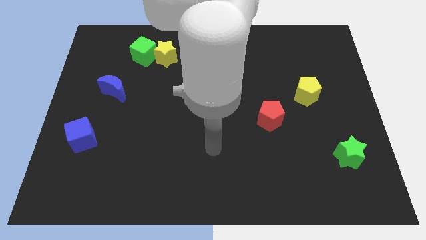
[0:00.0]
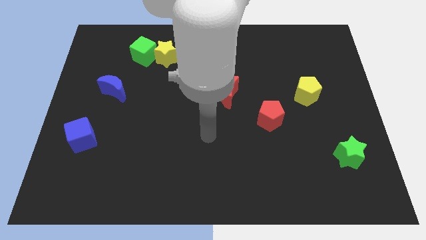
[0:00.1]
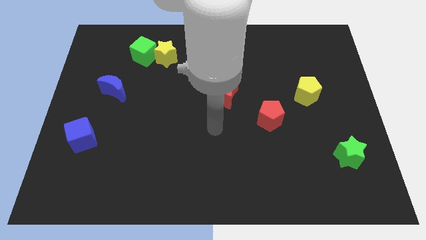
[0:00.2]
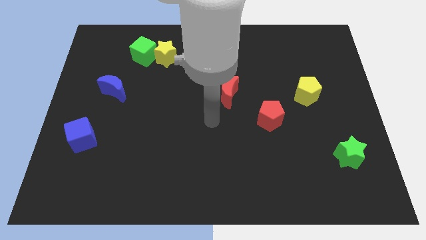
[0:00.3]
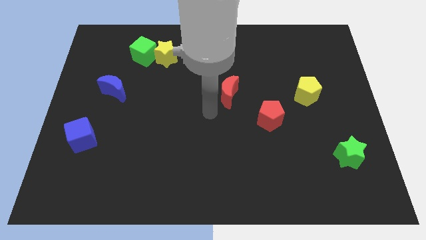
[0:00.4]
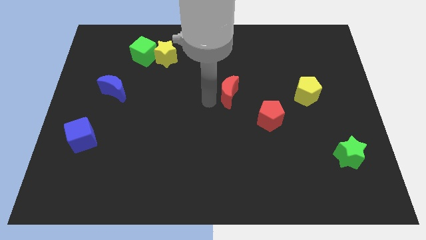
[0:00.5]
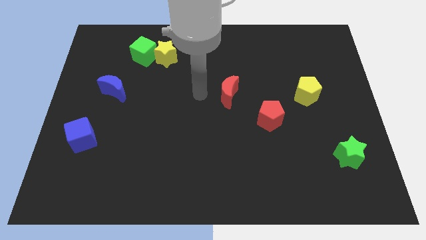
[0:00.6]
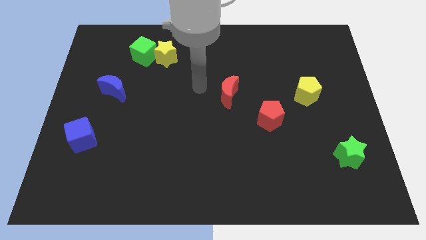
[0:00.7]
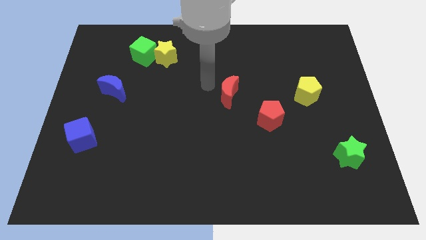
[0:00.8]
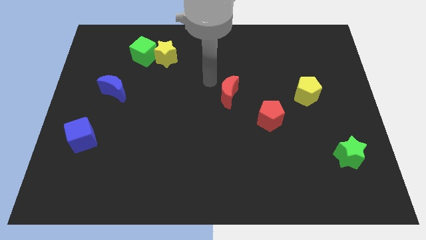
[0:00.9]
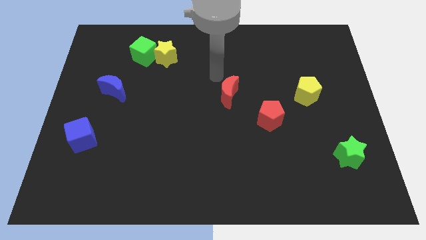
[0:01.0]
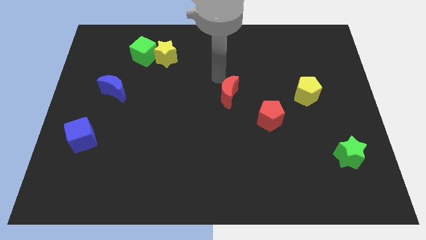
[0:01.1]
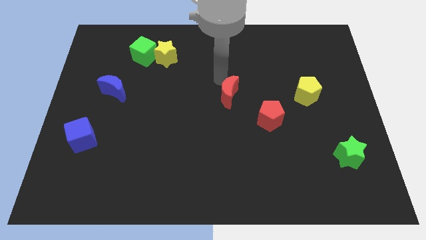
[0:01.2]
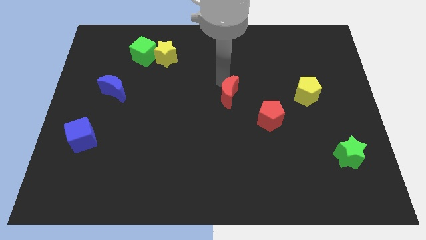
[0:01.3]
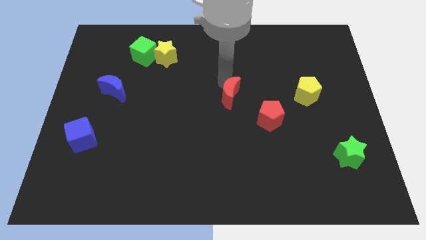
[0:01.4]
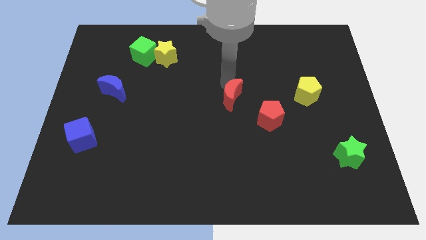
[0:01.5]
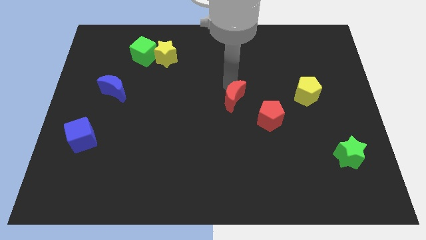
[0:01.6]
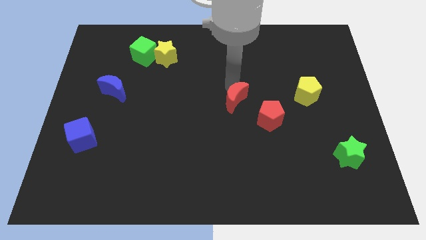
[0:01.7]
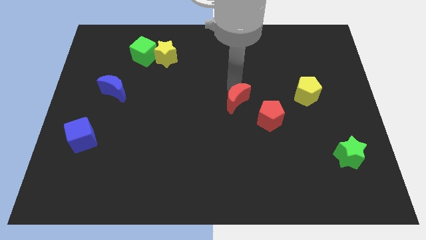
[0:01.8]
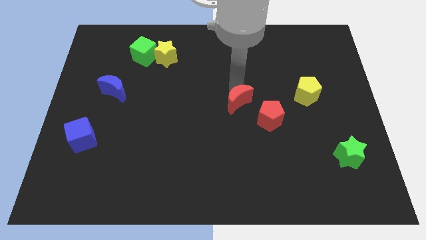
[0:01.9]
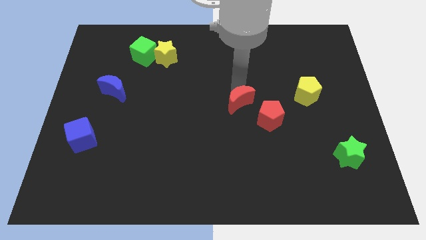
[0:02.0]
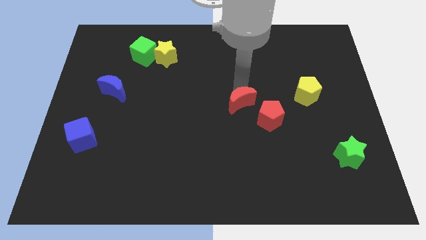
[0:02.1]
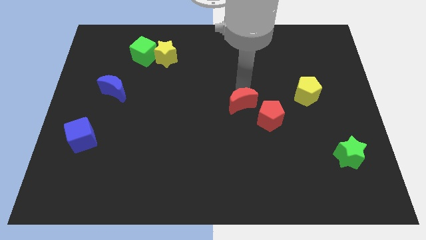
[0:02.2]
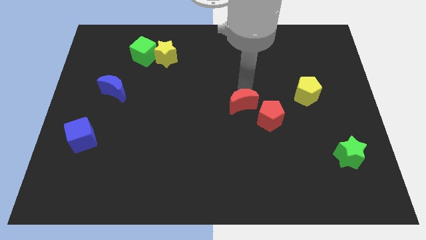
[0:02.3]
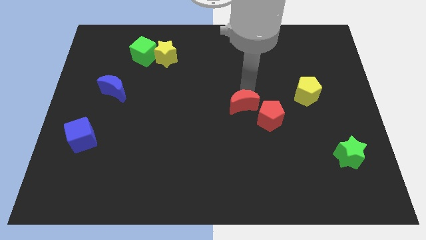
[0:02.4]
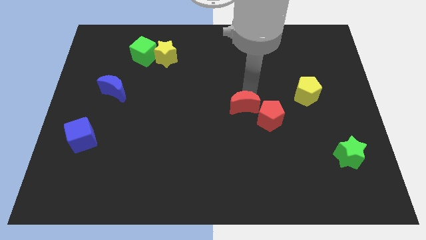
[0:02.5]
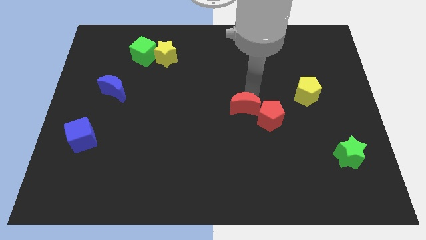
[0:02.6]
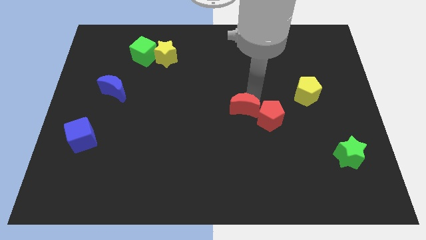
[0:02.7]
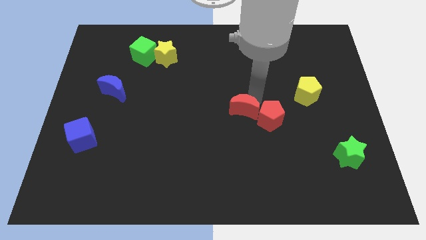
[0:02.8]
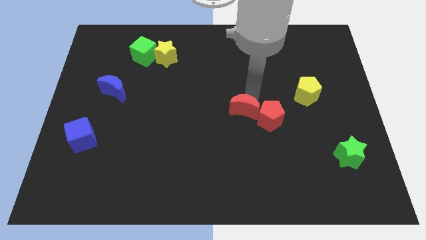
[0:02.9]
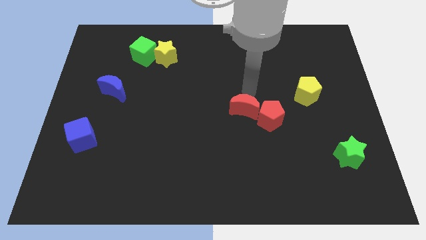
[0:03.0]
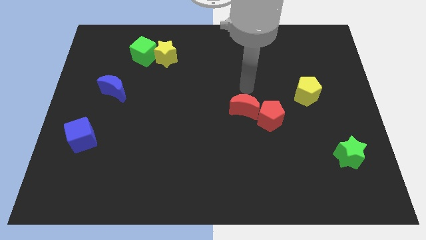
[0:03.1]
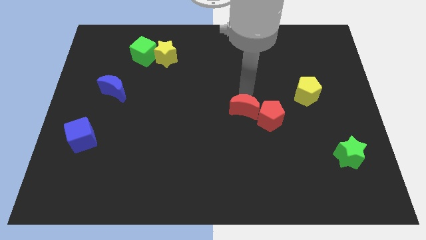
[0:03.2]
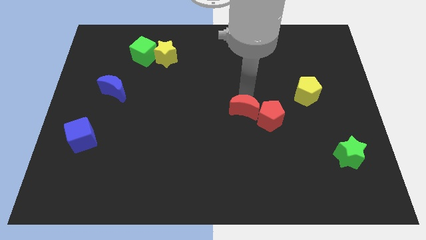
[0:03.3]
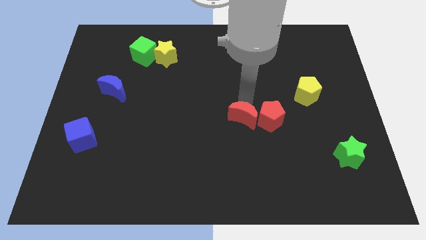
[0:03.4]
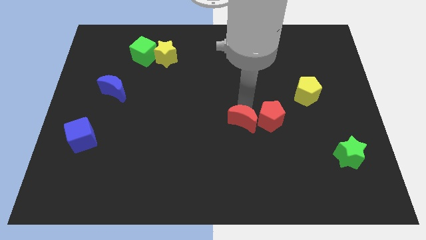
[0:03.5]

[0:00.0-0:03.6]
slightly move the red moon downwards

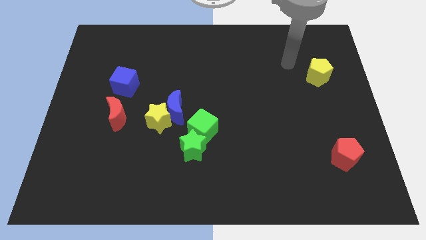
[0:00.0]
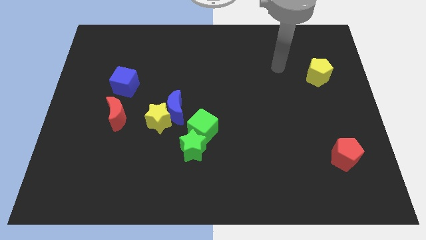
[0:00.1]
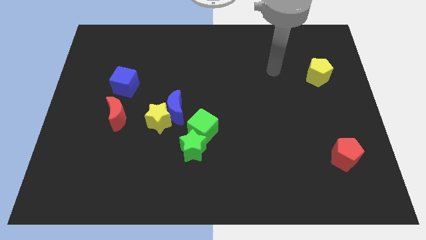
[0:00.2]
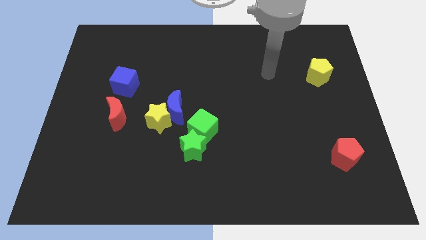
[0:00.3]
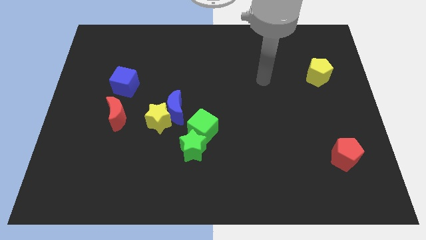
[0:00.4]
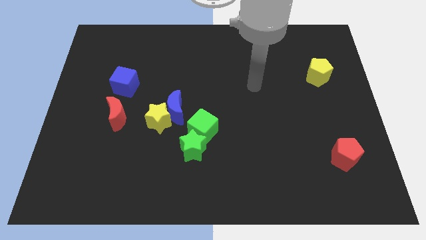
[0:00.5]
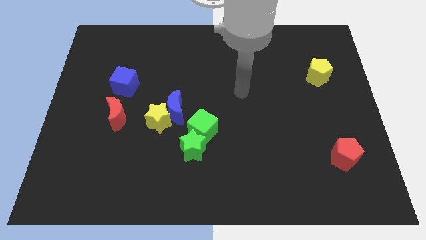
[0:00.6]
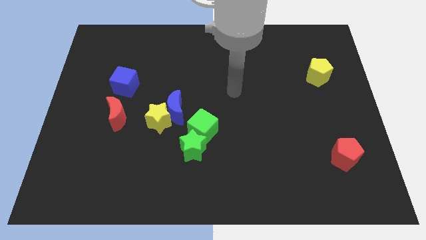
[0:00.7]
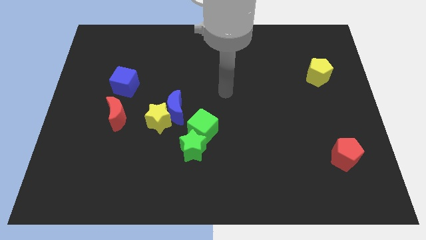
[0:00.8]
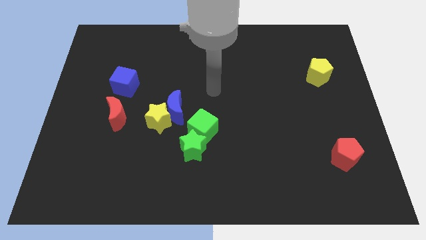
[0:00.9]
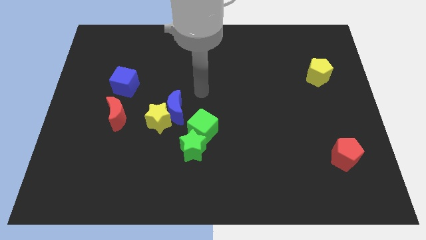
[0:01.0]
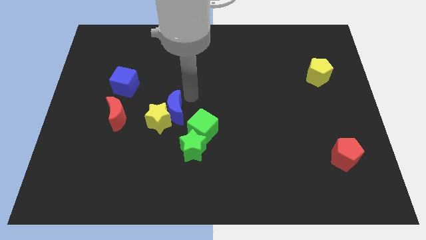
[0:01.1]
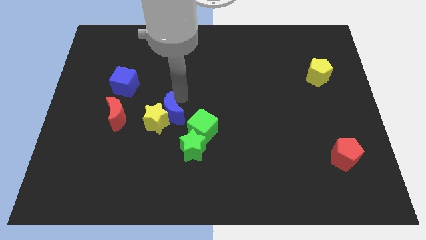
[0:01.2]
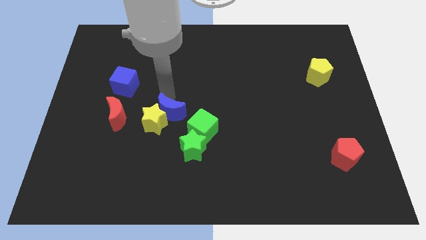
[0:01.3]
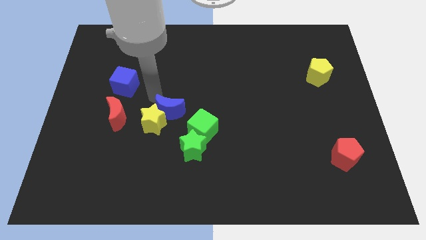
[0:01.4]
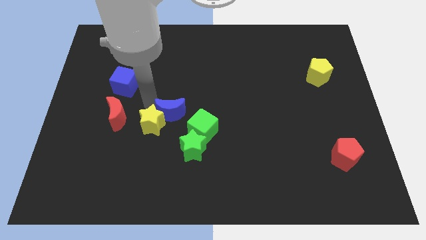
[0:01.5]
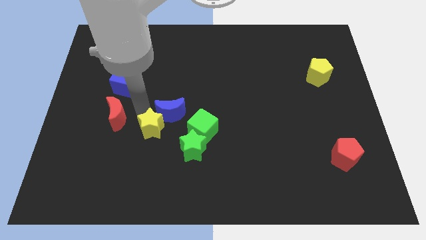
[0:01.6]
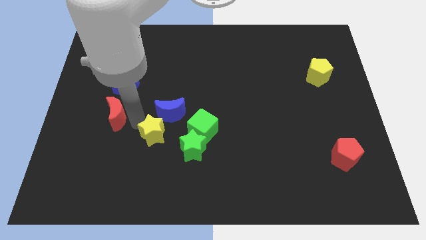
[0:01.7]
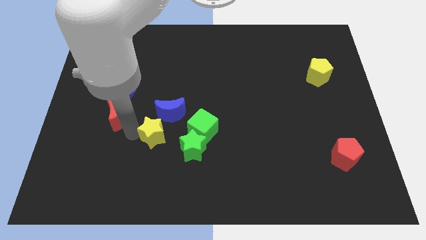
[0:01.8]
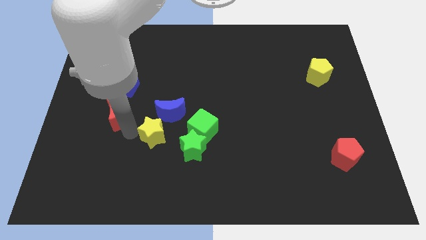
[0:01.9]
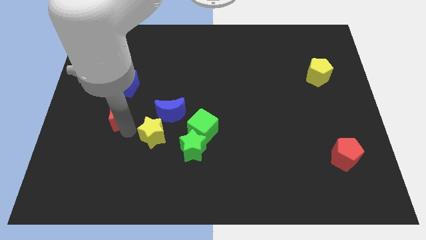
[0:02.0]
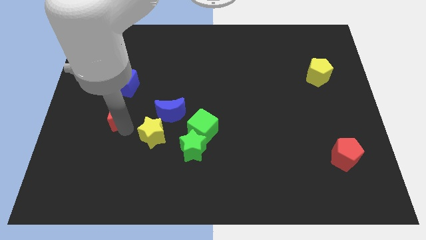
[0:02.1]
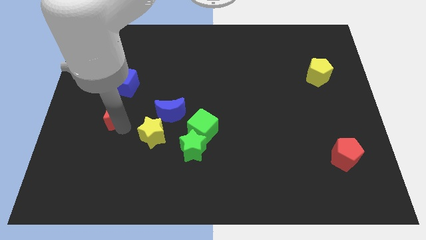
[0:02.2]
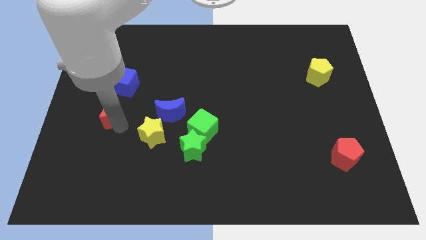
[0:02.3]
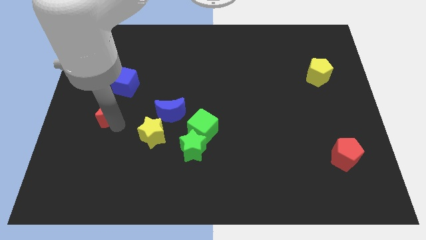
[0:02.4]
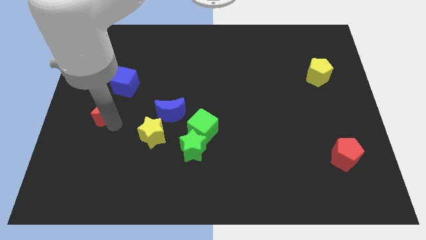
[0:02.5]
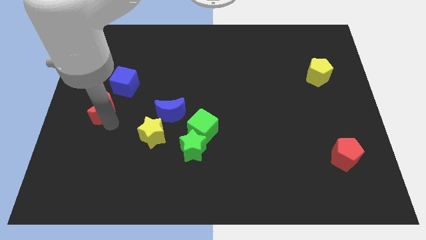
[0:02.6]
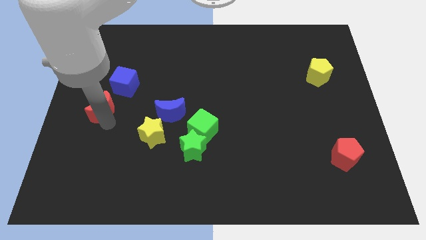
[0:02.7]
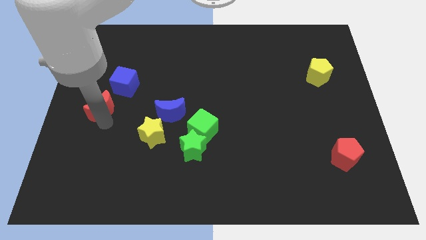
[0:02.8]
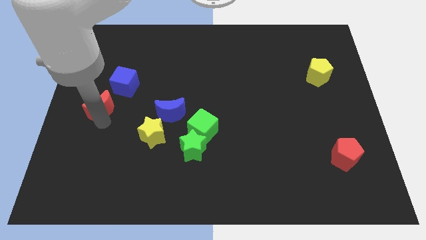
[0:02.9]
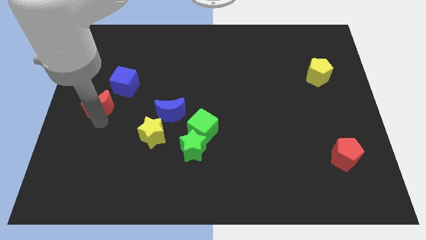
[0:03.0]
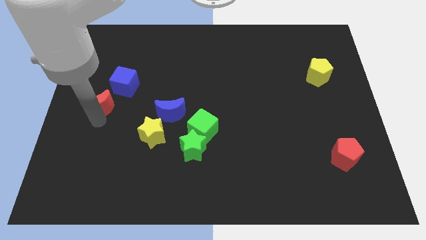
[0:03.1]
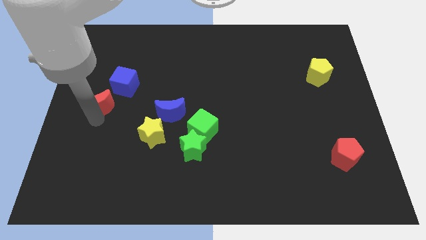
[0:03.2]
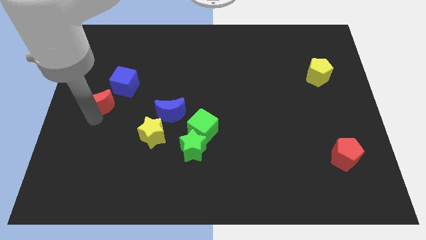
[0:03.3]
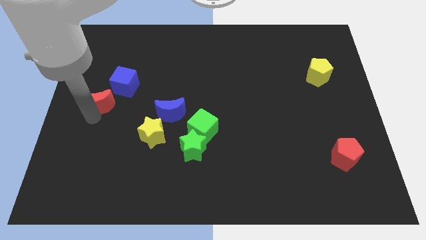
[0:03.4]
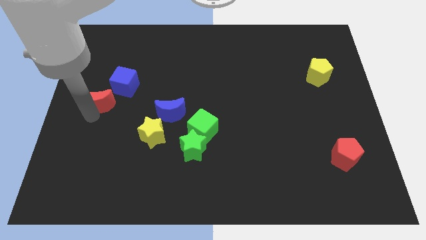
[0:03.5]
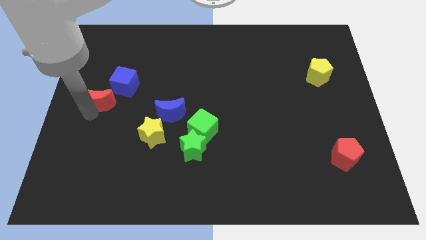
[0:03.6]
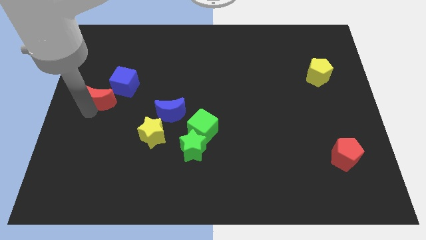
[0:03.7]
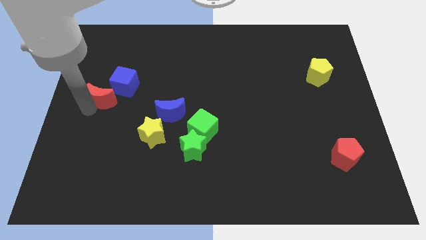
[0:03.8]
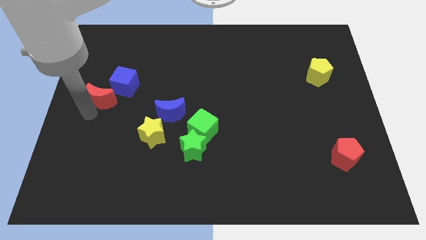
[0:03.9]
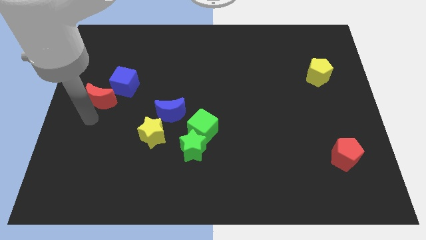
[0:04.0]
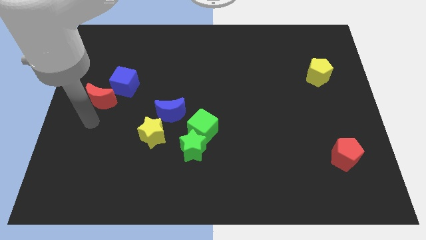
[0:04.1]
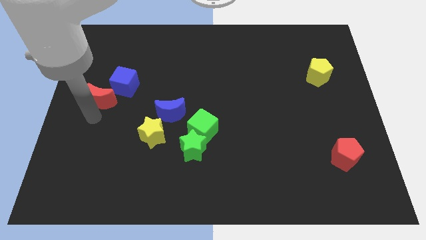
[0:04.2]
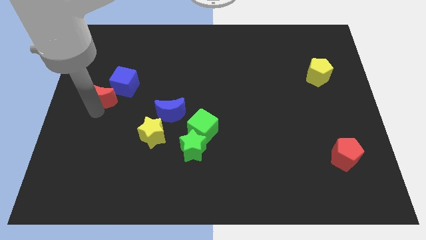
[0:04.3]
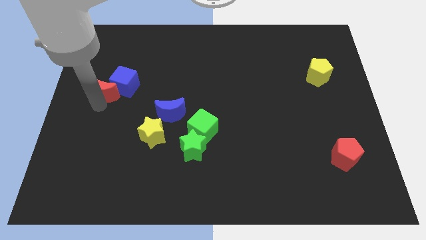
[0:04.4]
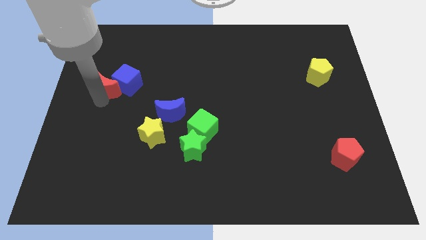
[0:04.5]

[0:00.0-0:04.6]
move the red moon upwards slightly
